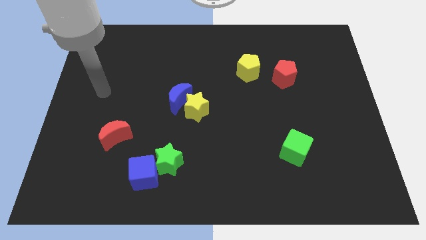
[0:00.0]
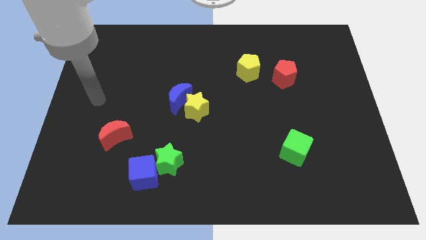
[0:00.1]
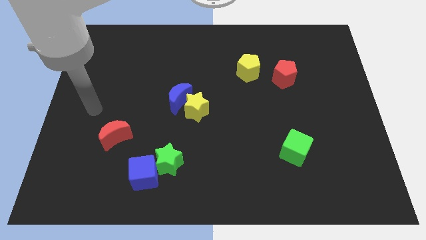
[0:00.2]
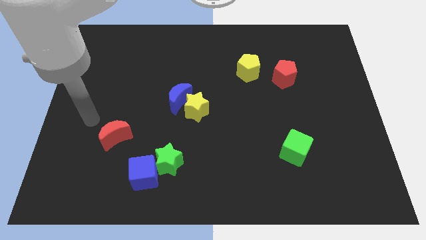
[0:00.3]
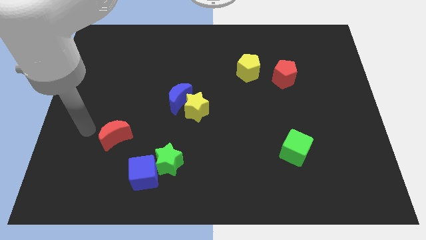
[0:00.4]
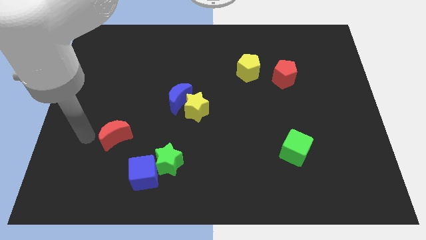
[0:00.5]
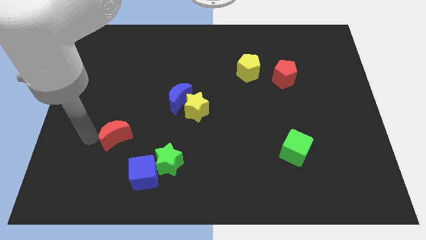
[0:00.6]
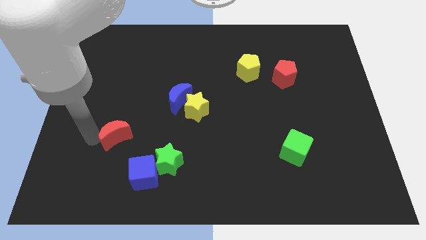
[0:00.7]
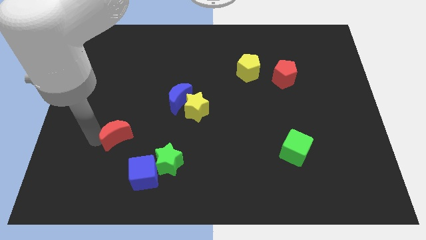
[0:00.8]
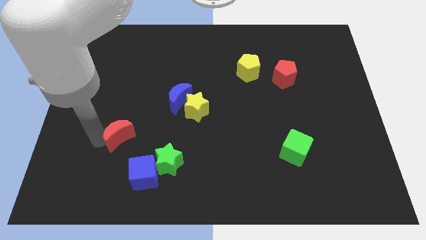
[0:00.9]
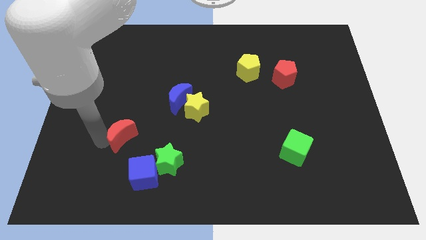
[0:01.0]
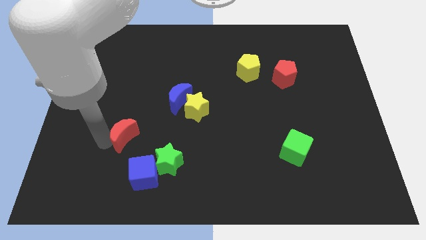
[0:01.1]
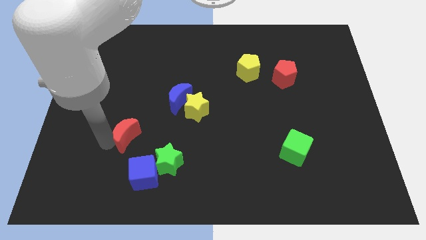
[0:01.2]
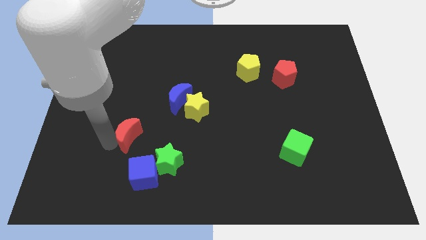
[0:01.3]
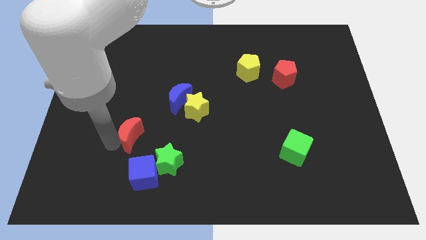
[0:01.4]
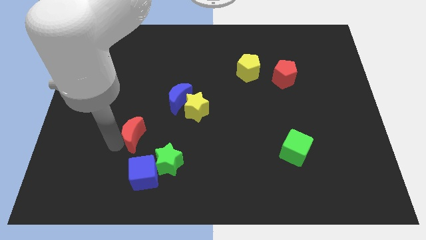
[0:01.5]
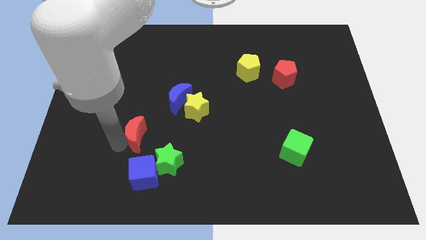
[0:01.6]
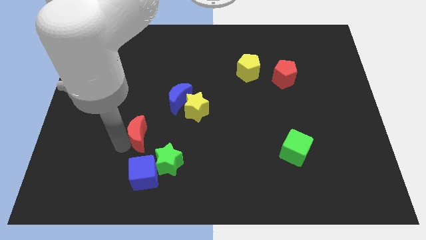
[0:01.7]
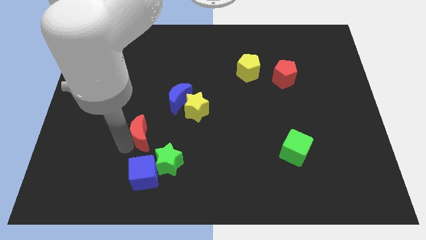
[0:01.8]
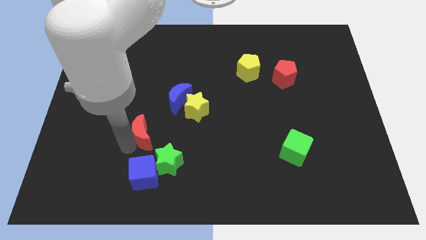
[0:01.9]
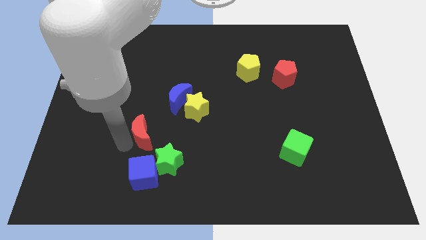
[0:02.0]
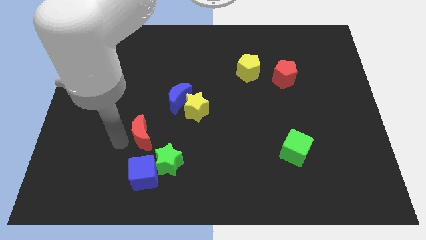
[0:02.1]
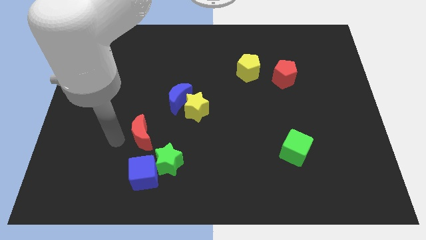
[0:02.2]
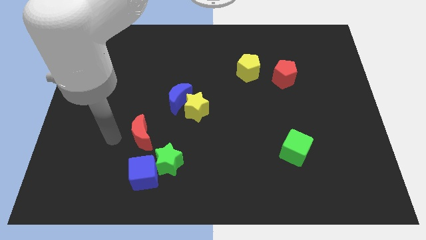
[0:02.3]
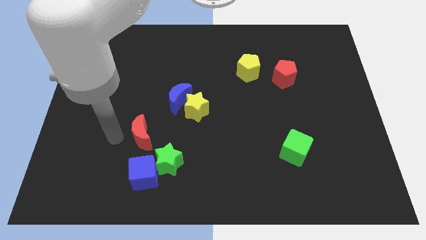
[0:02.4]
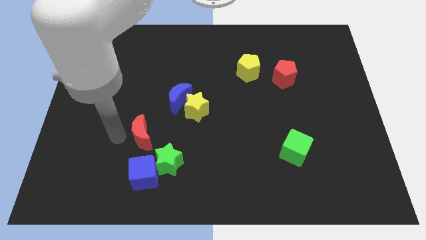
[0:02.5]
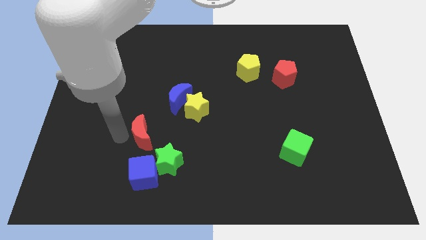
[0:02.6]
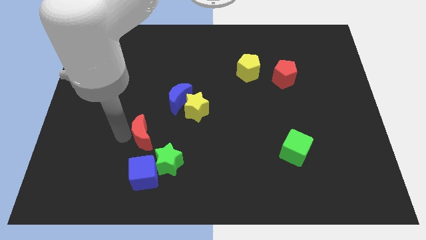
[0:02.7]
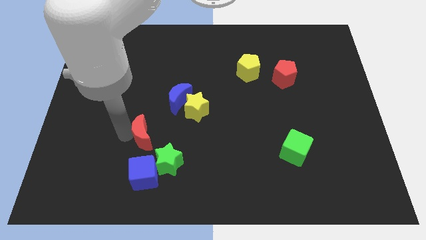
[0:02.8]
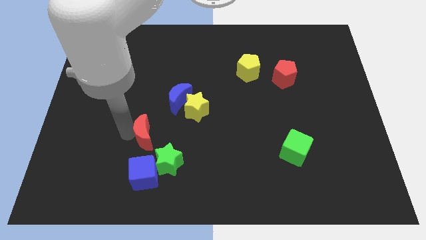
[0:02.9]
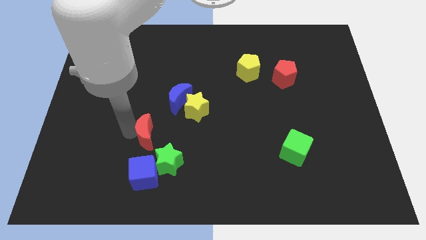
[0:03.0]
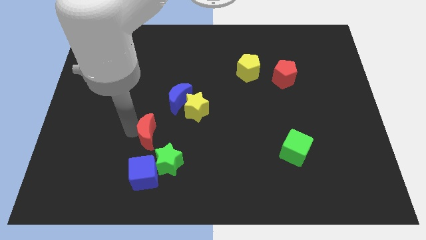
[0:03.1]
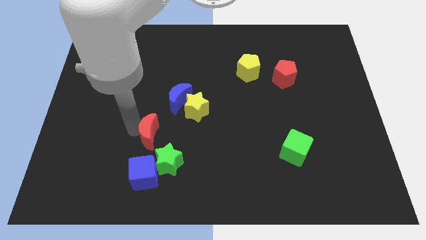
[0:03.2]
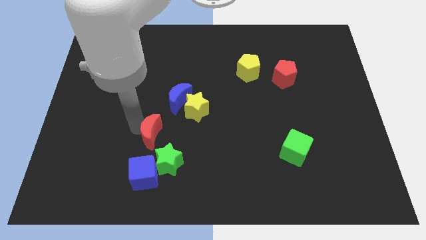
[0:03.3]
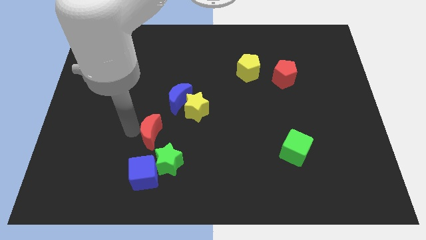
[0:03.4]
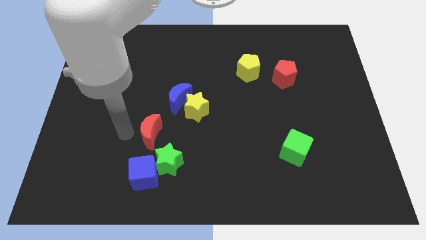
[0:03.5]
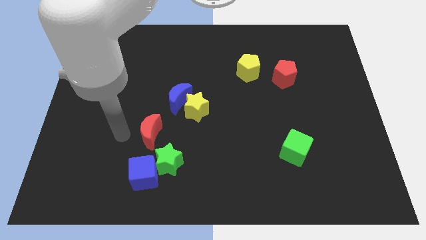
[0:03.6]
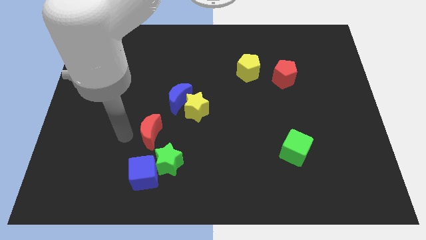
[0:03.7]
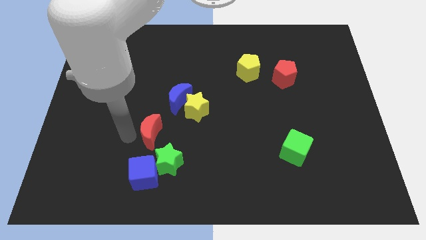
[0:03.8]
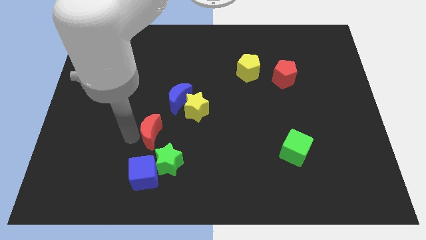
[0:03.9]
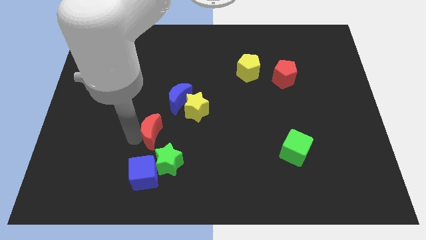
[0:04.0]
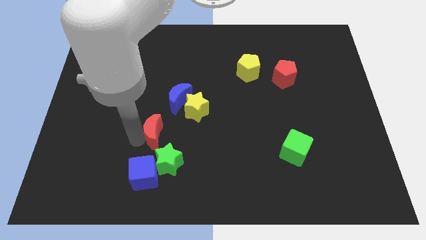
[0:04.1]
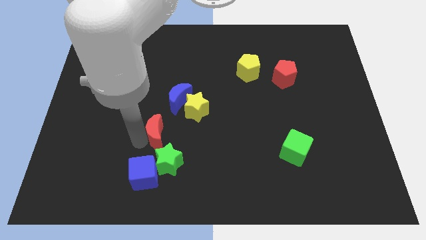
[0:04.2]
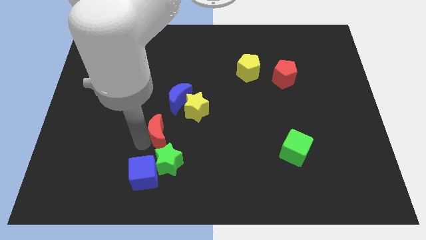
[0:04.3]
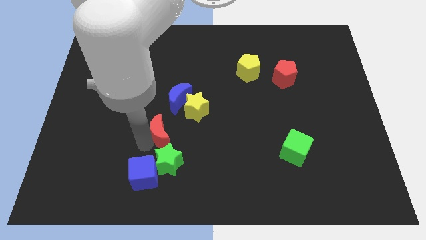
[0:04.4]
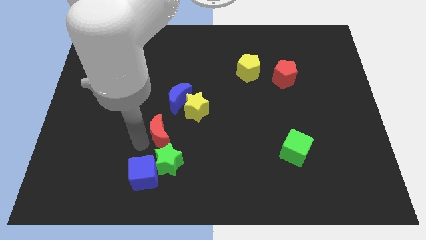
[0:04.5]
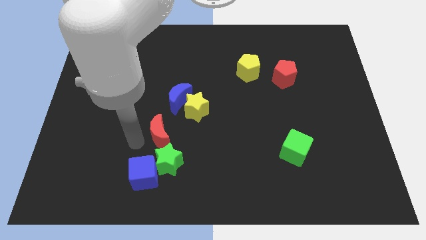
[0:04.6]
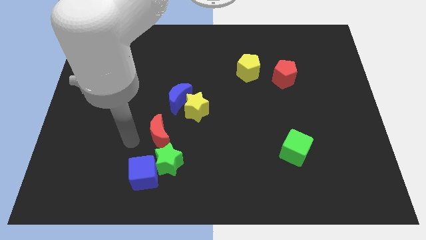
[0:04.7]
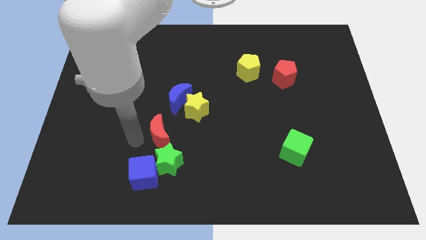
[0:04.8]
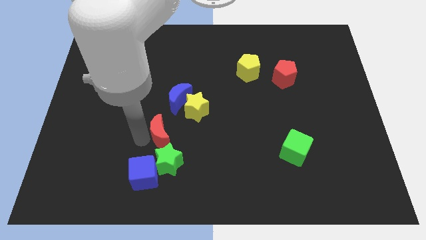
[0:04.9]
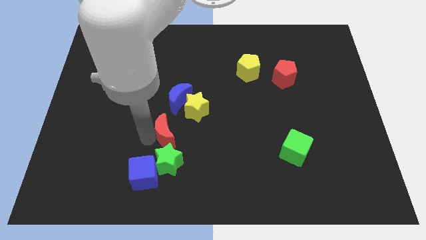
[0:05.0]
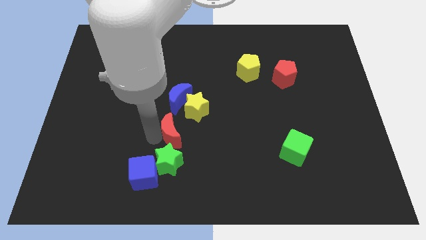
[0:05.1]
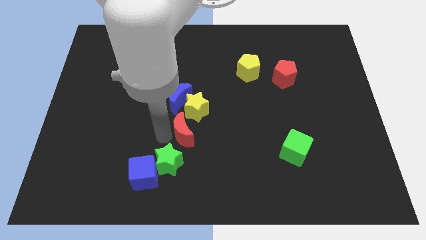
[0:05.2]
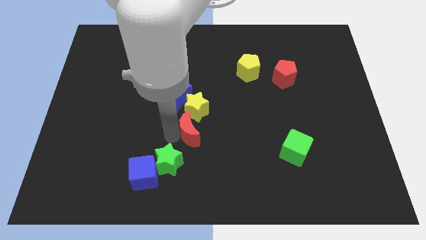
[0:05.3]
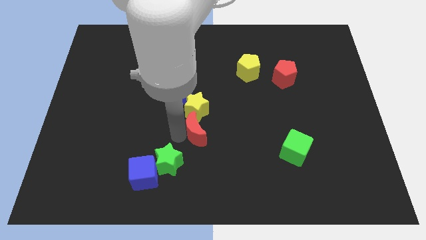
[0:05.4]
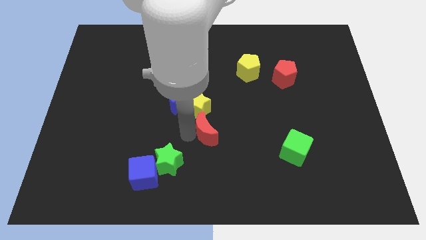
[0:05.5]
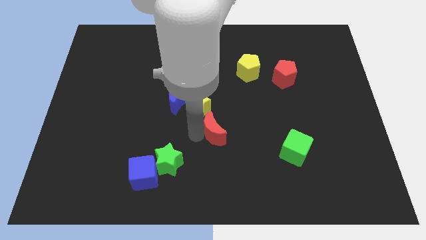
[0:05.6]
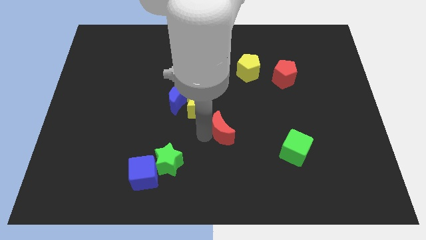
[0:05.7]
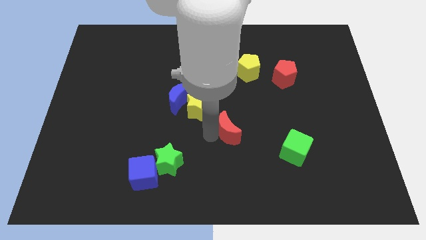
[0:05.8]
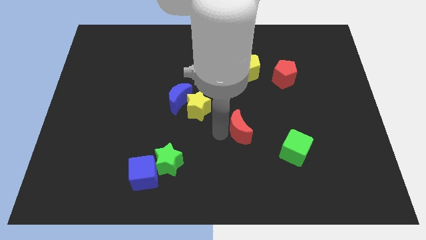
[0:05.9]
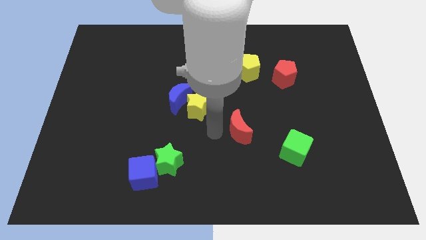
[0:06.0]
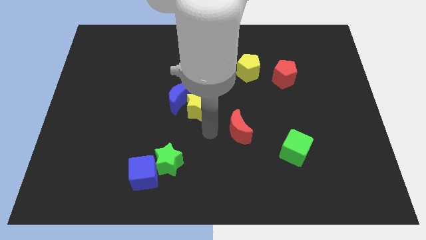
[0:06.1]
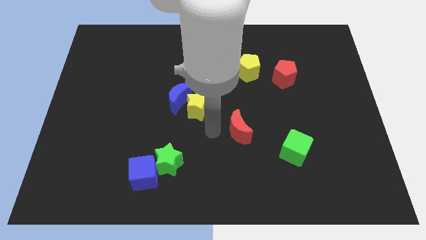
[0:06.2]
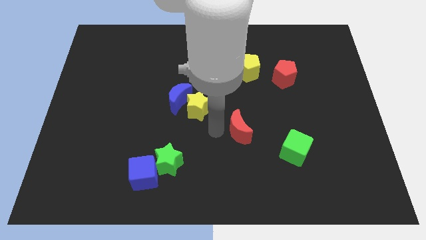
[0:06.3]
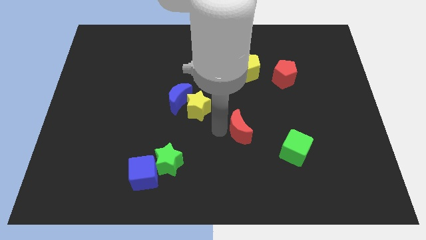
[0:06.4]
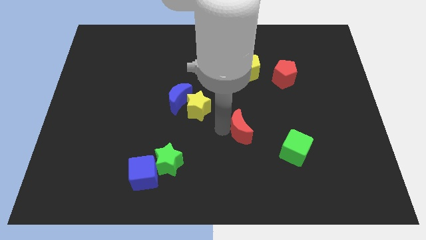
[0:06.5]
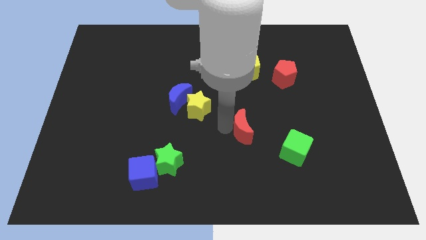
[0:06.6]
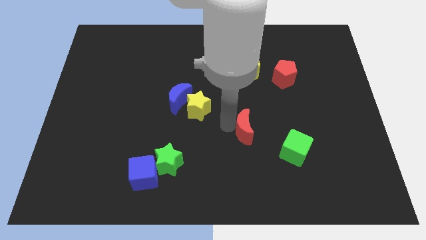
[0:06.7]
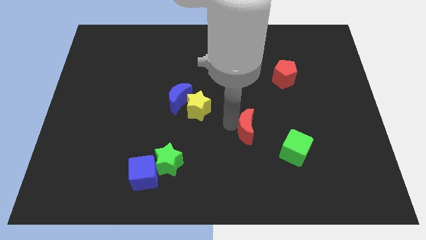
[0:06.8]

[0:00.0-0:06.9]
slide the red moon to the top left side of the green cube

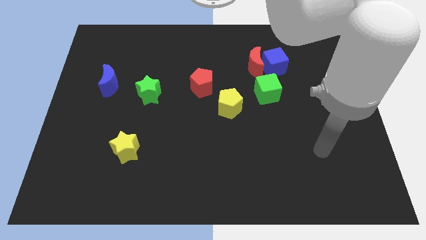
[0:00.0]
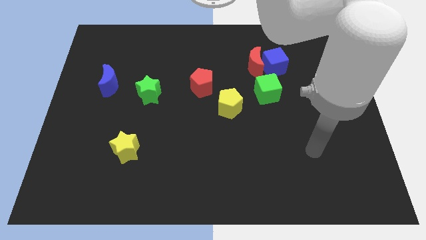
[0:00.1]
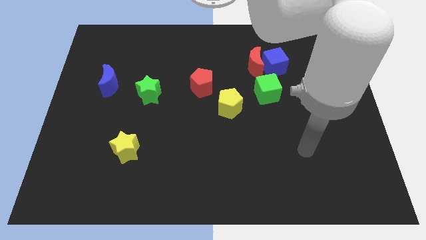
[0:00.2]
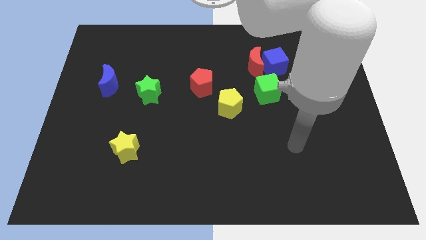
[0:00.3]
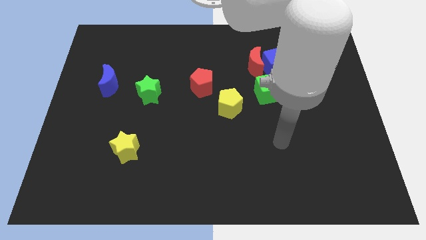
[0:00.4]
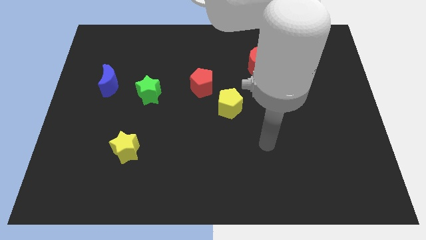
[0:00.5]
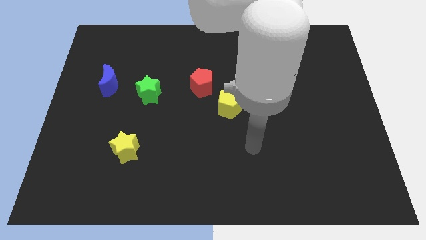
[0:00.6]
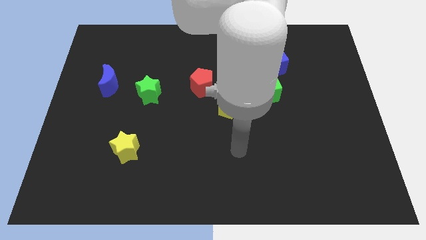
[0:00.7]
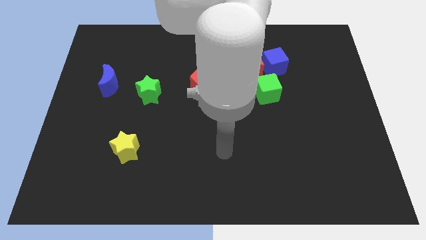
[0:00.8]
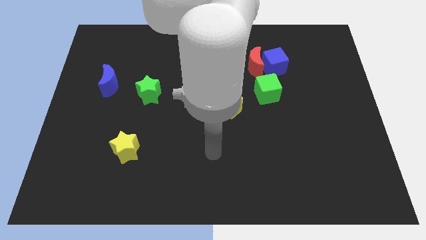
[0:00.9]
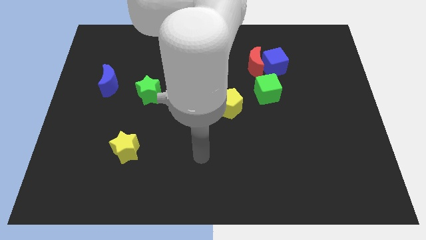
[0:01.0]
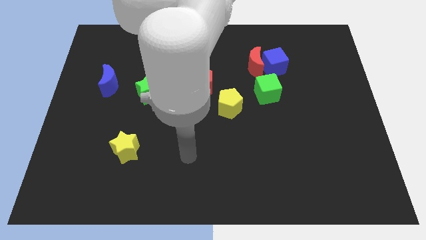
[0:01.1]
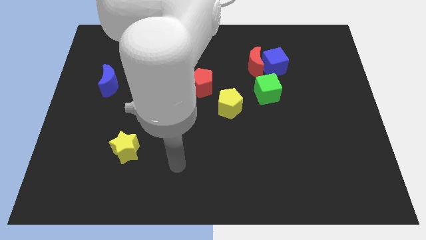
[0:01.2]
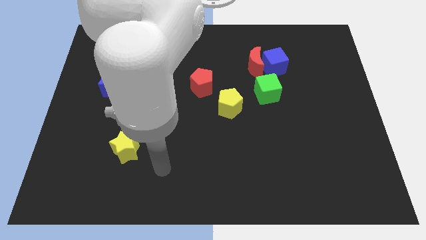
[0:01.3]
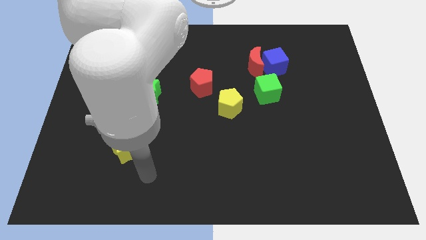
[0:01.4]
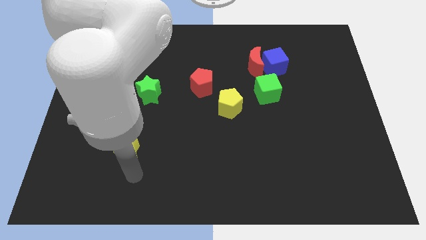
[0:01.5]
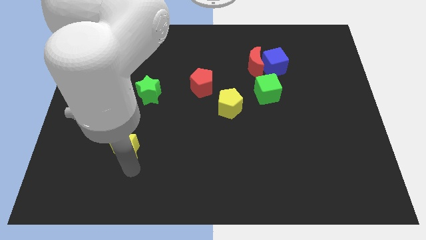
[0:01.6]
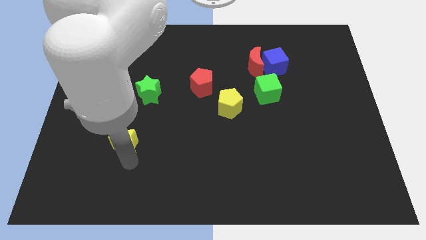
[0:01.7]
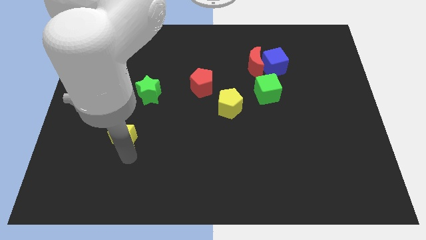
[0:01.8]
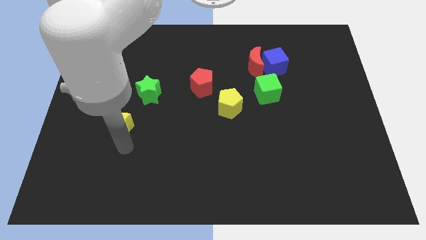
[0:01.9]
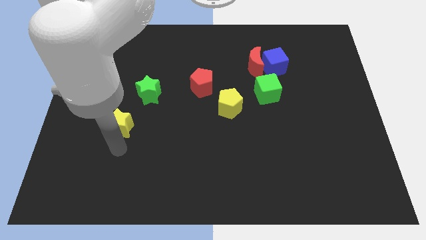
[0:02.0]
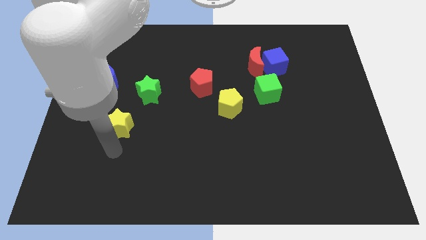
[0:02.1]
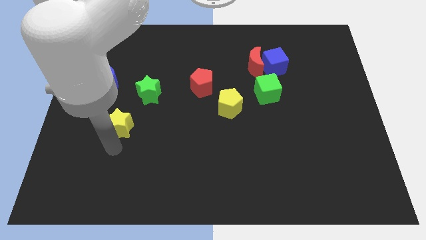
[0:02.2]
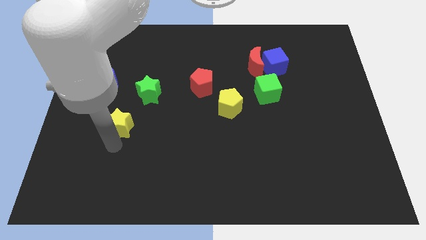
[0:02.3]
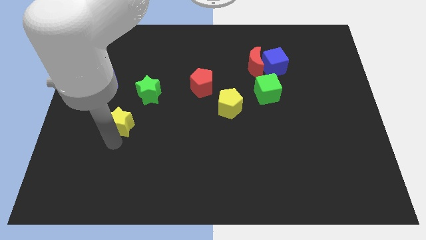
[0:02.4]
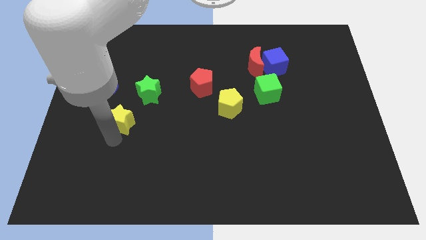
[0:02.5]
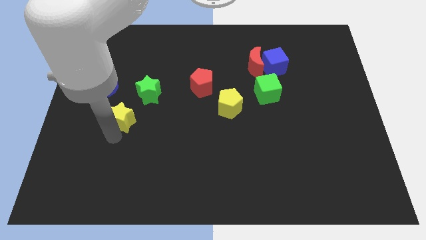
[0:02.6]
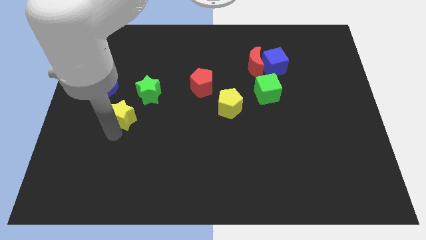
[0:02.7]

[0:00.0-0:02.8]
move the yellow star diagonally down and to the right of the blue moon
